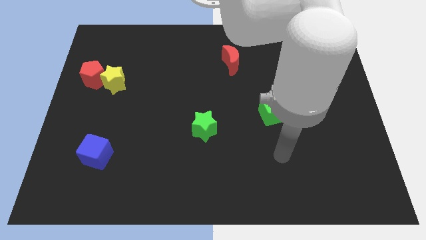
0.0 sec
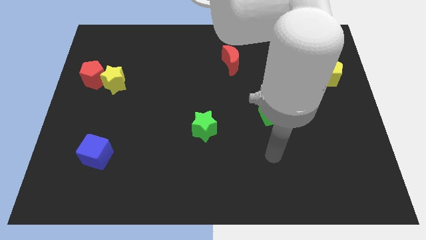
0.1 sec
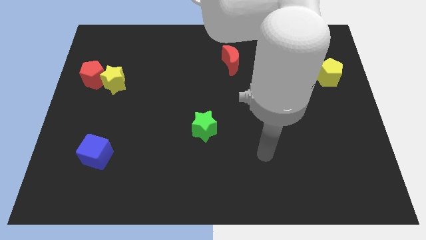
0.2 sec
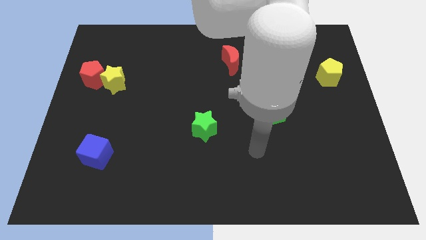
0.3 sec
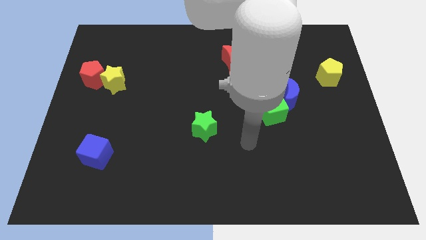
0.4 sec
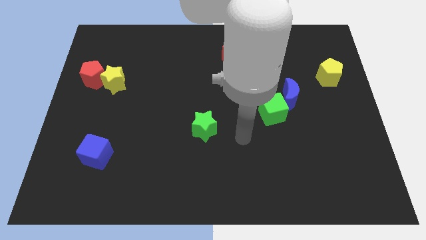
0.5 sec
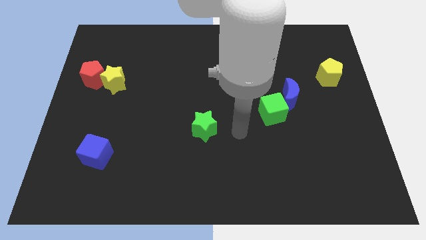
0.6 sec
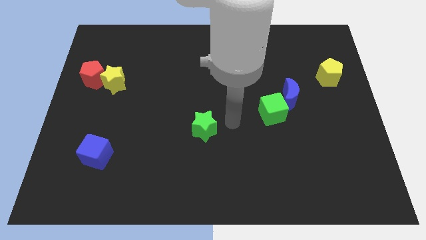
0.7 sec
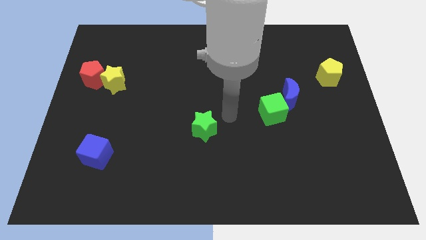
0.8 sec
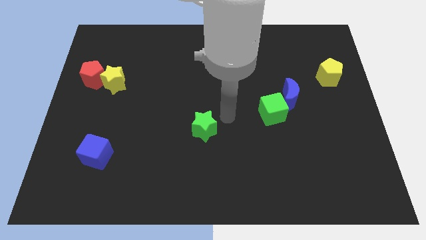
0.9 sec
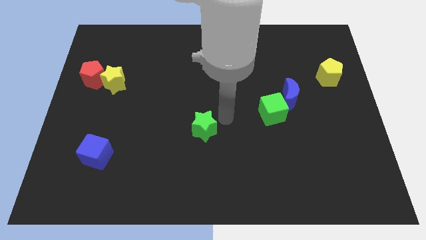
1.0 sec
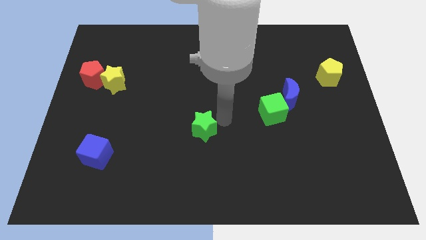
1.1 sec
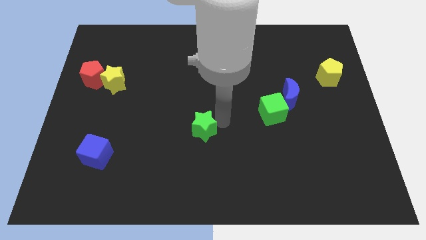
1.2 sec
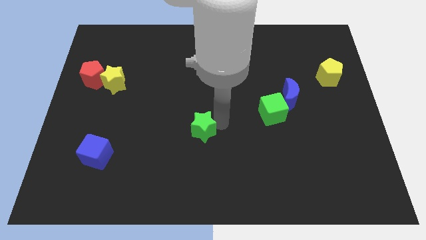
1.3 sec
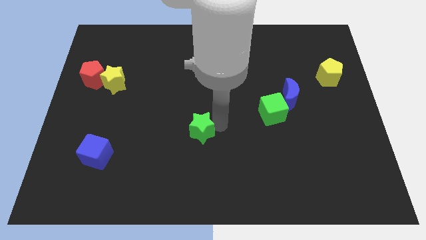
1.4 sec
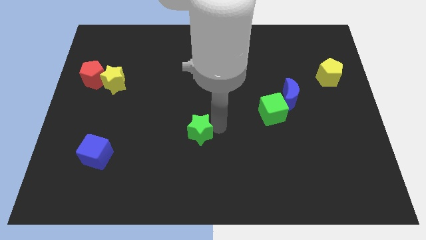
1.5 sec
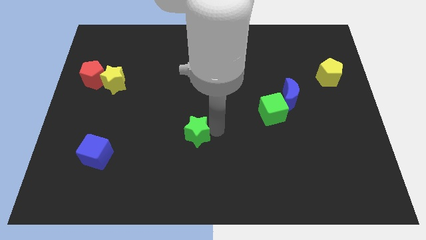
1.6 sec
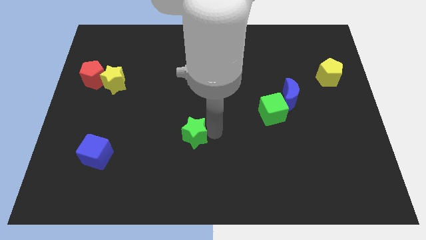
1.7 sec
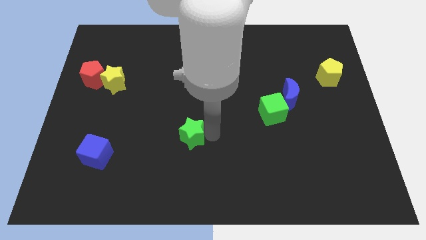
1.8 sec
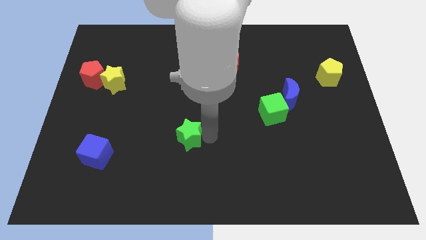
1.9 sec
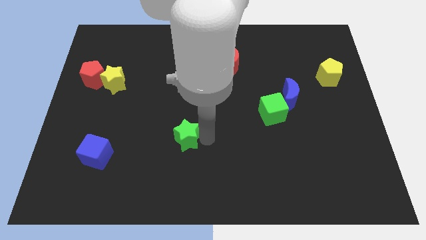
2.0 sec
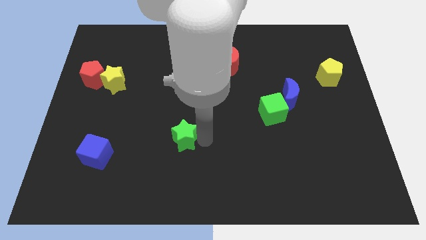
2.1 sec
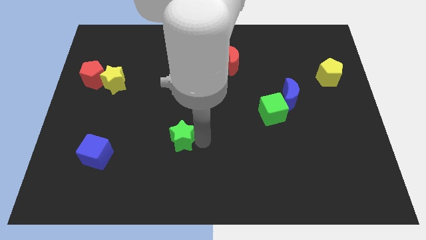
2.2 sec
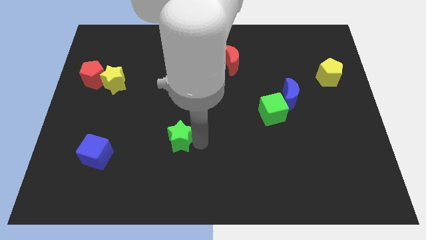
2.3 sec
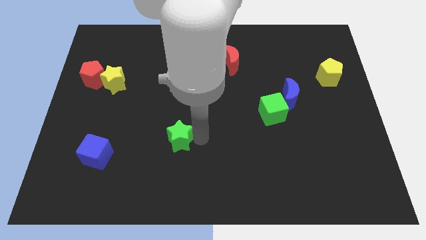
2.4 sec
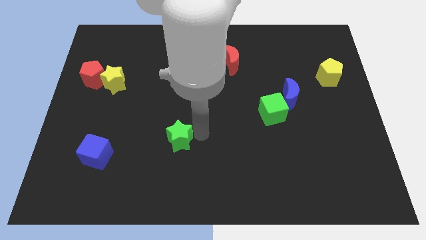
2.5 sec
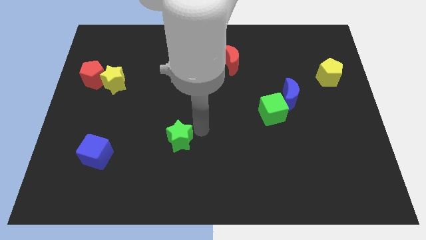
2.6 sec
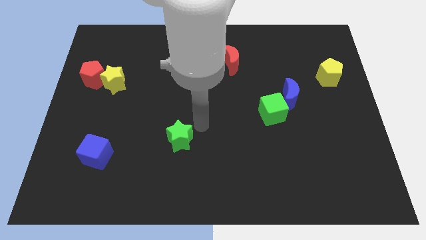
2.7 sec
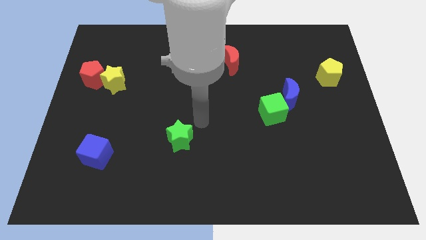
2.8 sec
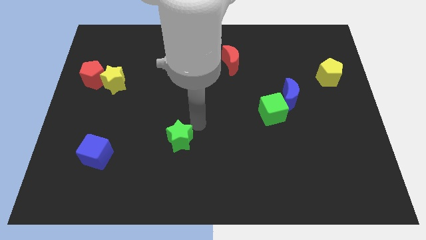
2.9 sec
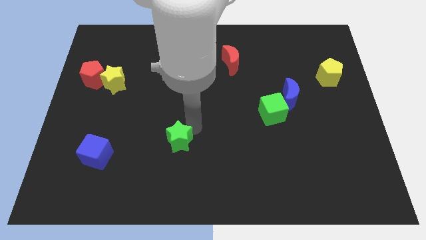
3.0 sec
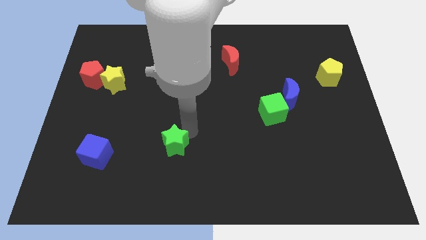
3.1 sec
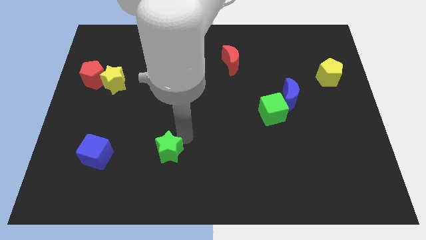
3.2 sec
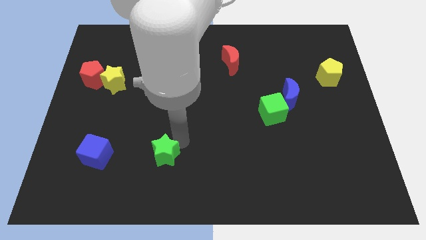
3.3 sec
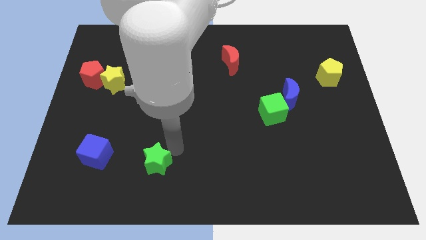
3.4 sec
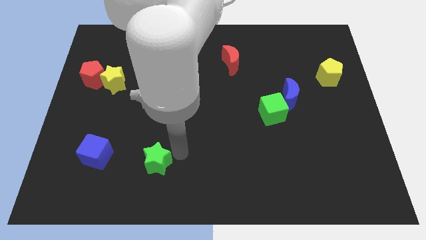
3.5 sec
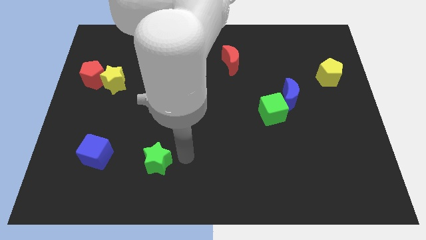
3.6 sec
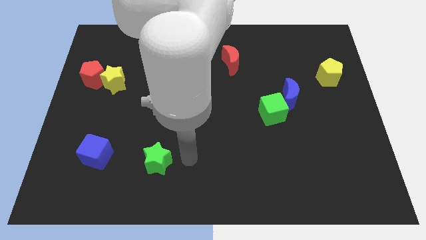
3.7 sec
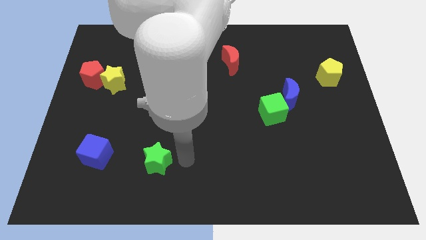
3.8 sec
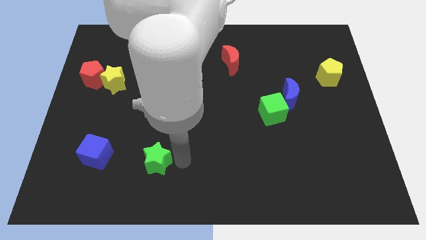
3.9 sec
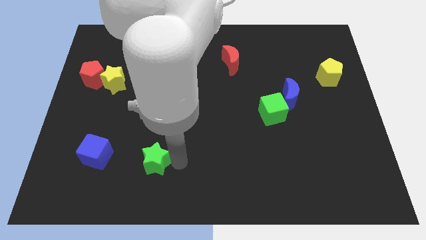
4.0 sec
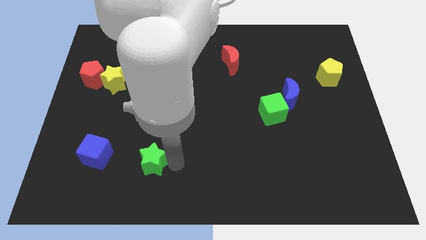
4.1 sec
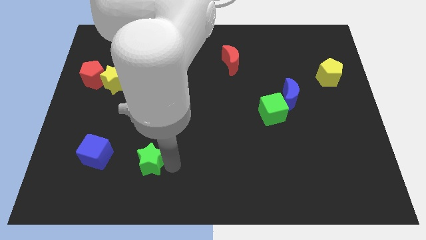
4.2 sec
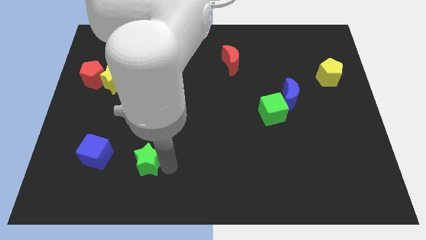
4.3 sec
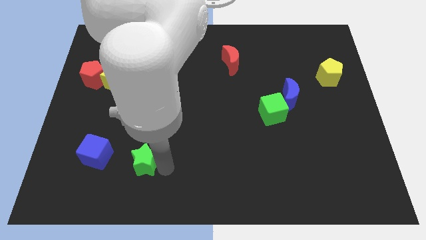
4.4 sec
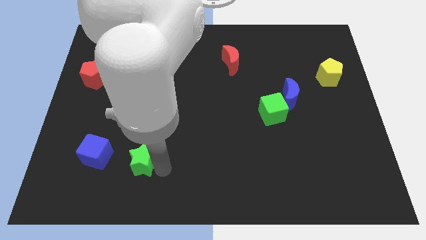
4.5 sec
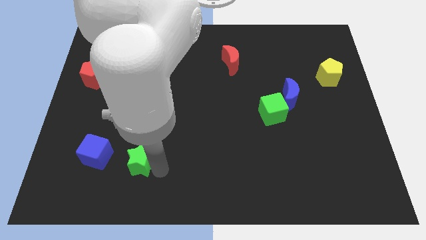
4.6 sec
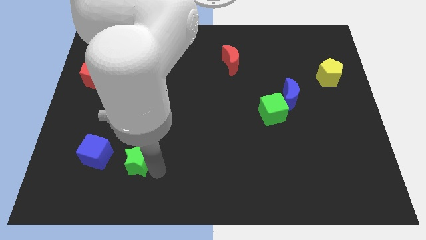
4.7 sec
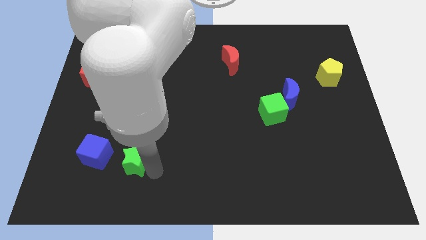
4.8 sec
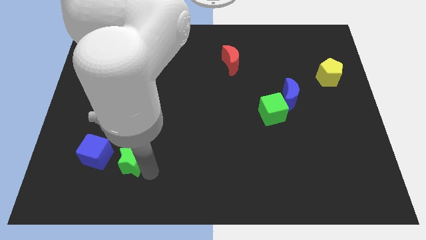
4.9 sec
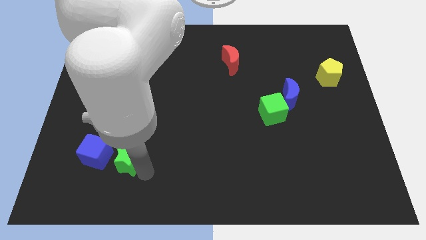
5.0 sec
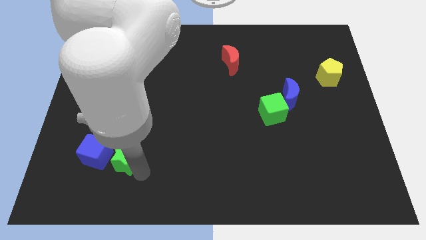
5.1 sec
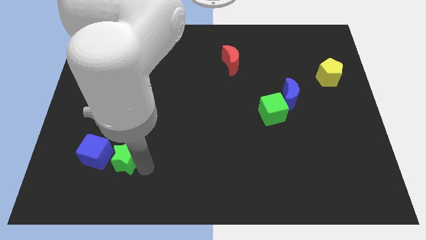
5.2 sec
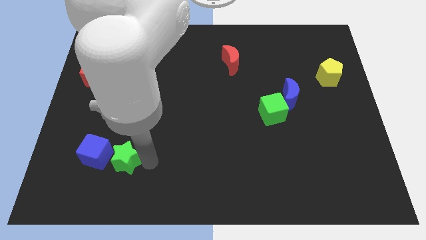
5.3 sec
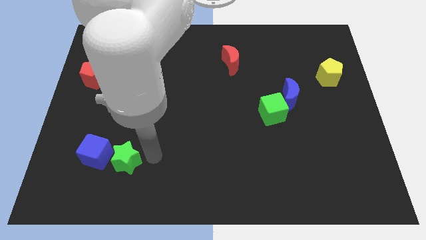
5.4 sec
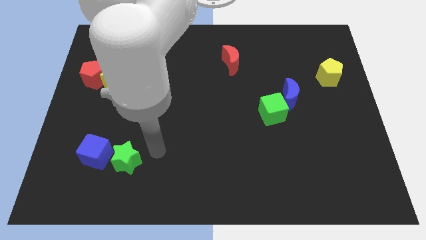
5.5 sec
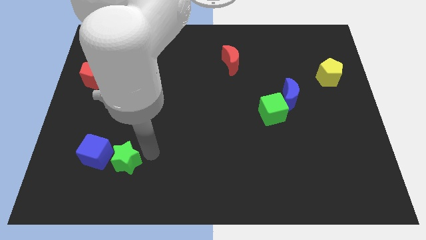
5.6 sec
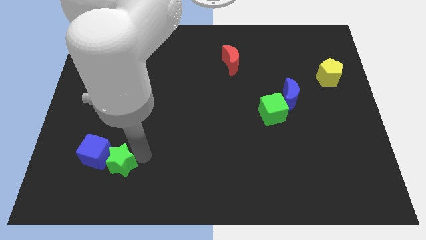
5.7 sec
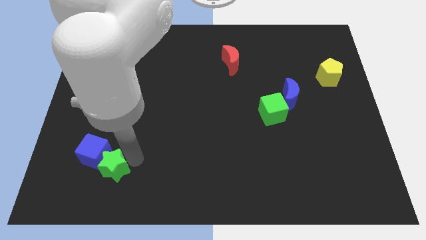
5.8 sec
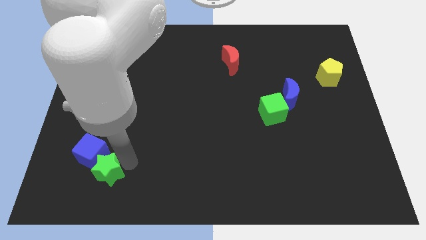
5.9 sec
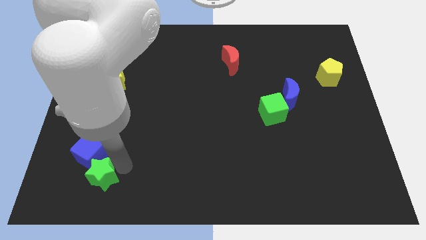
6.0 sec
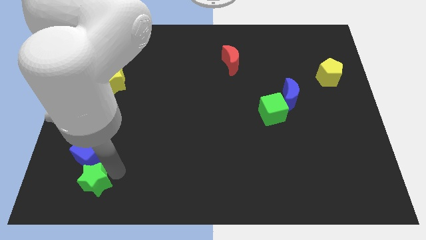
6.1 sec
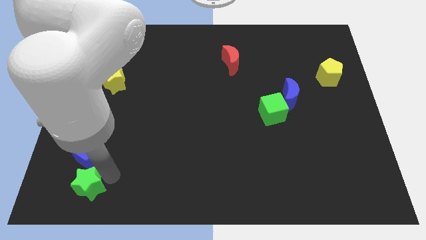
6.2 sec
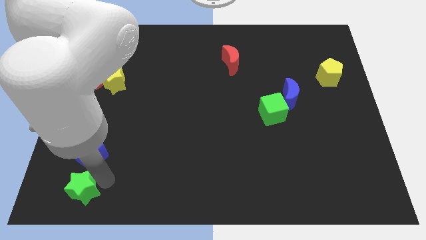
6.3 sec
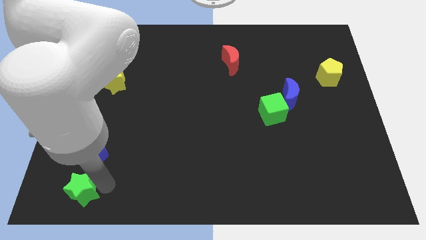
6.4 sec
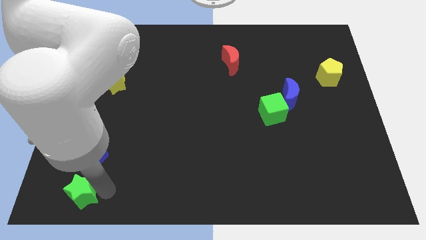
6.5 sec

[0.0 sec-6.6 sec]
push the green star to the bottom left of the board
